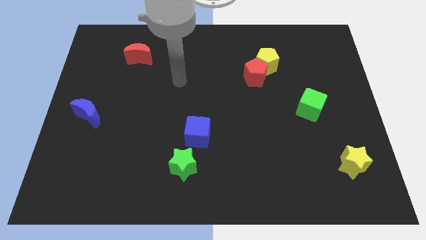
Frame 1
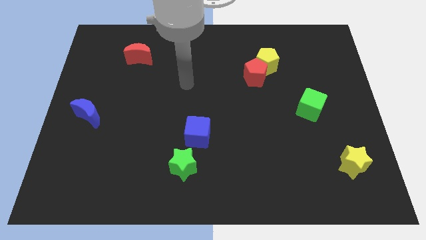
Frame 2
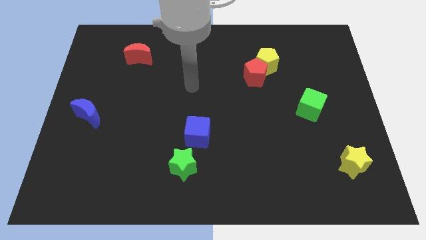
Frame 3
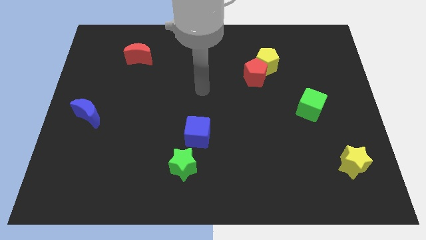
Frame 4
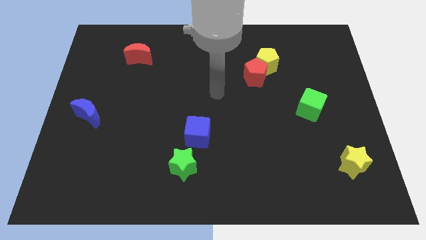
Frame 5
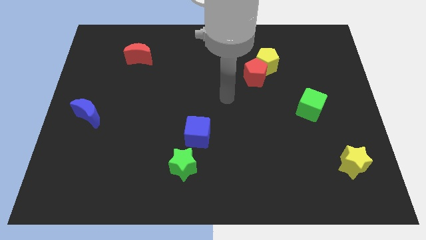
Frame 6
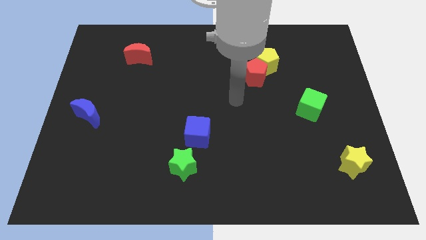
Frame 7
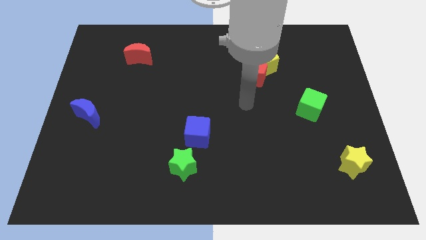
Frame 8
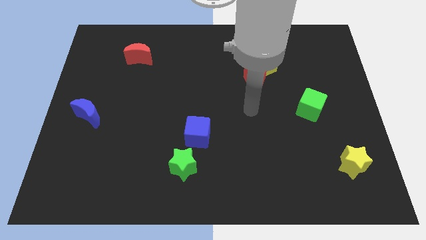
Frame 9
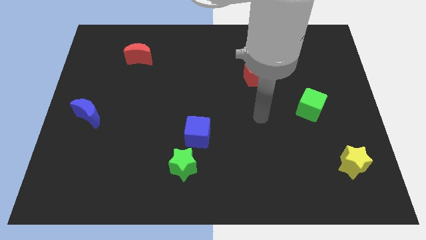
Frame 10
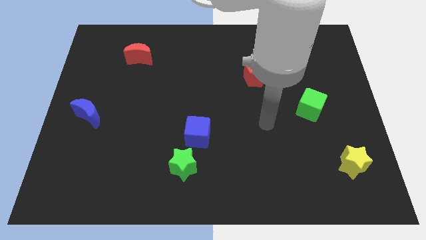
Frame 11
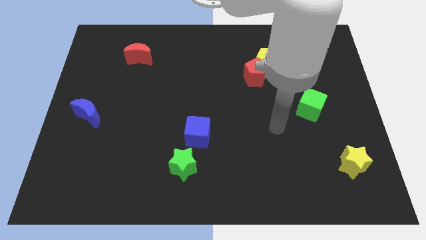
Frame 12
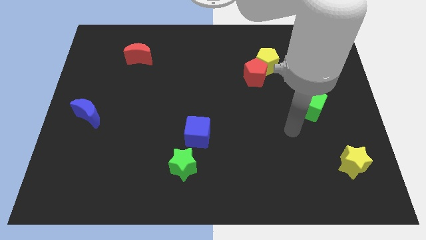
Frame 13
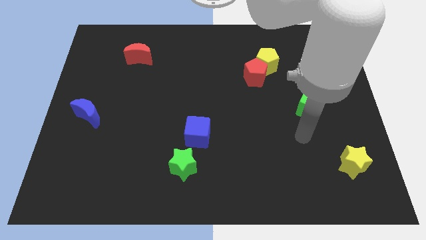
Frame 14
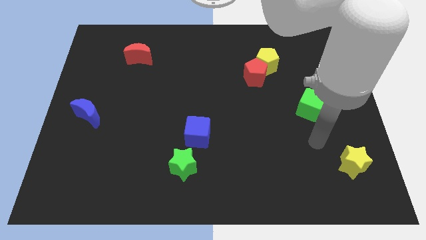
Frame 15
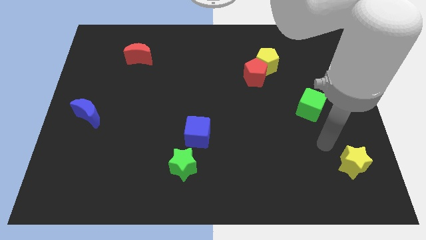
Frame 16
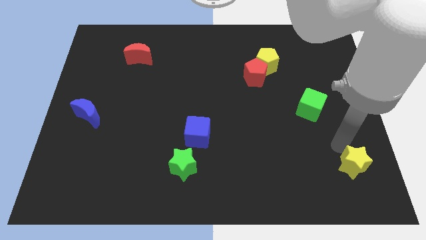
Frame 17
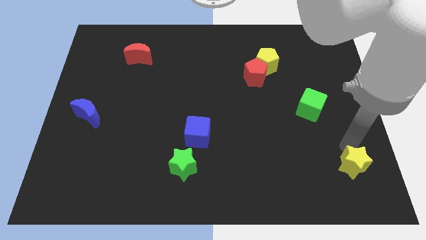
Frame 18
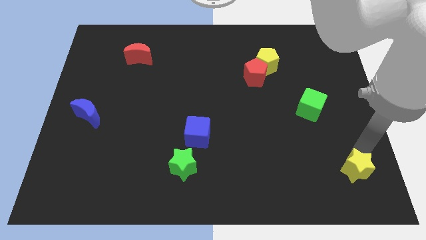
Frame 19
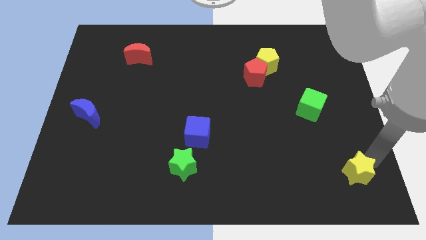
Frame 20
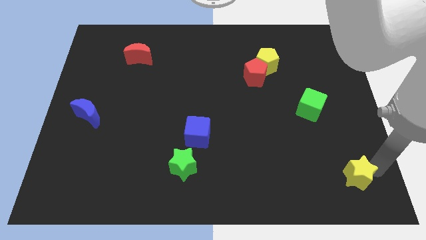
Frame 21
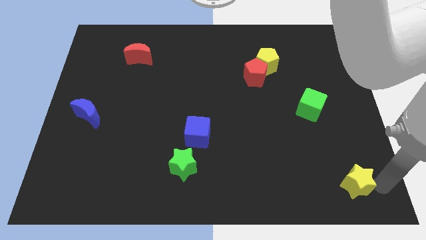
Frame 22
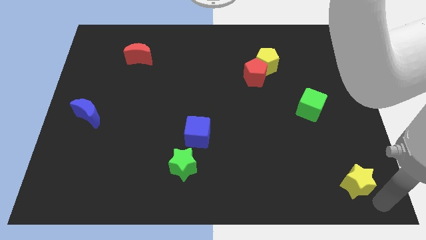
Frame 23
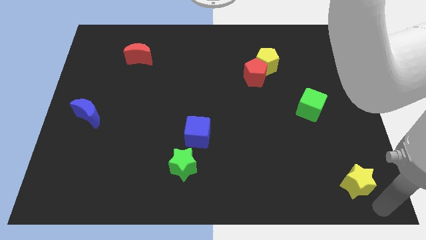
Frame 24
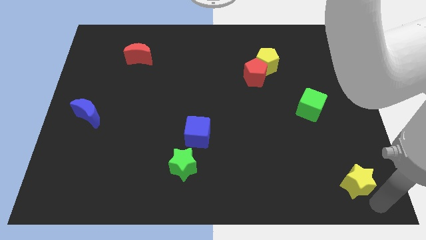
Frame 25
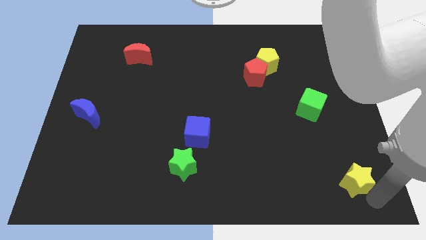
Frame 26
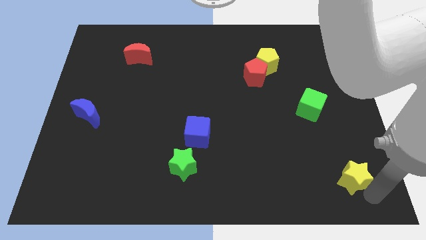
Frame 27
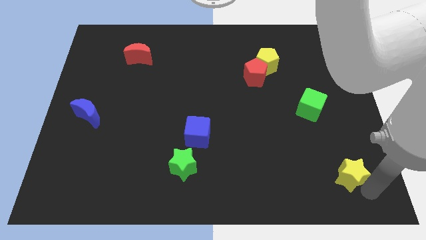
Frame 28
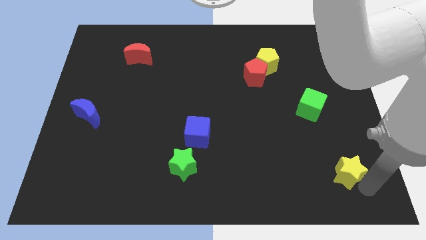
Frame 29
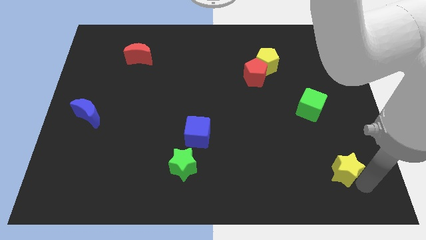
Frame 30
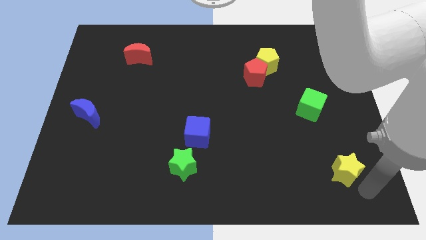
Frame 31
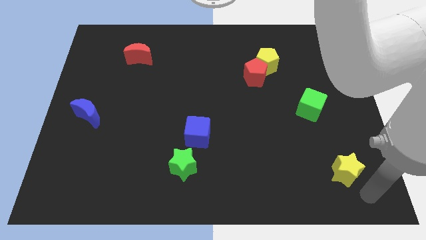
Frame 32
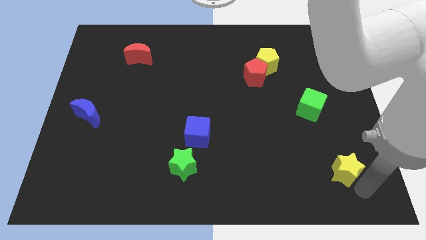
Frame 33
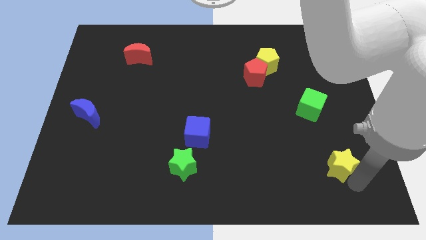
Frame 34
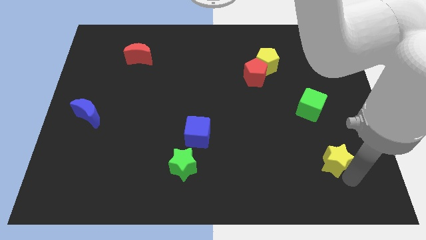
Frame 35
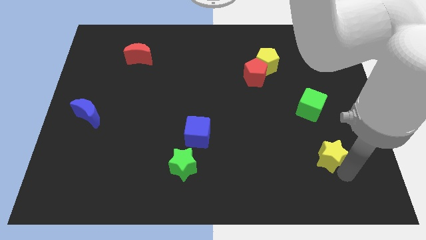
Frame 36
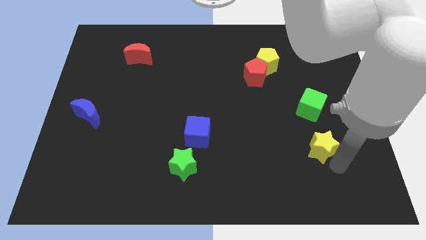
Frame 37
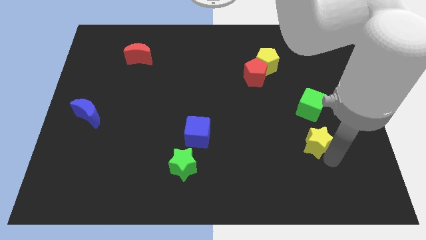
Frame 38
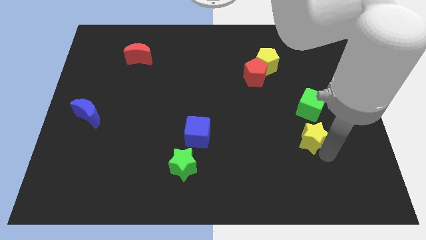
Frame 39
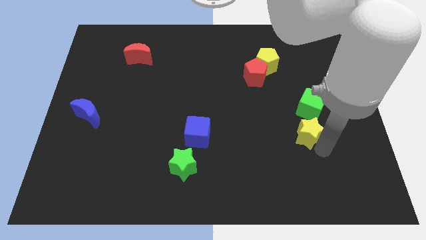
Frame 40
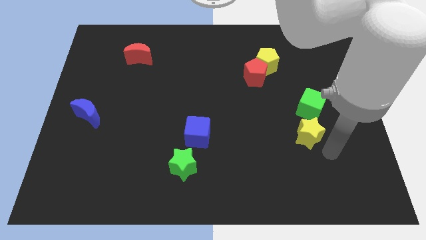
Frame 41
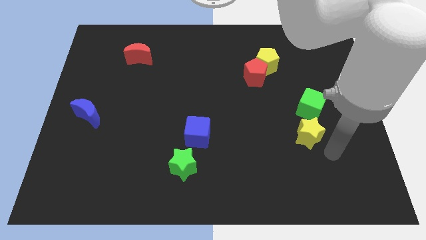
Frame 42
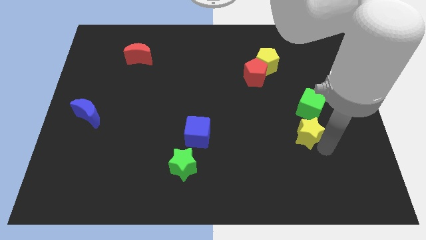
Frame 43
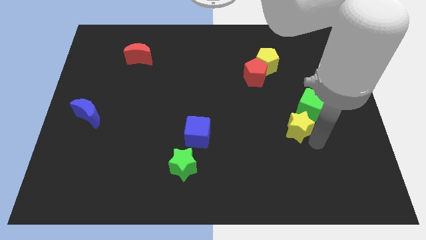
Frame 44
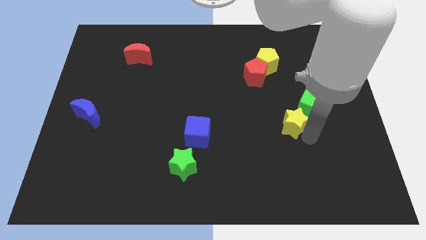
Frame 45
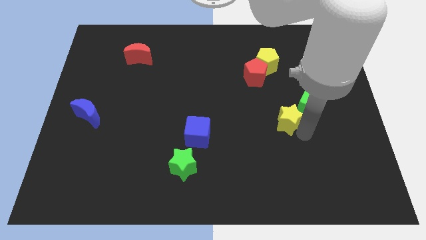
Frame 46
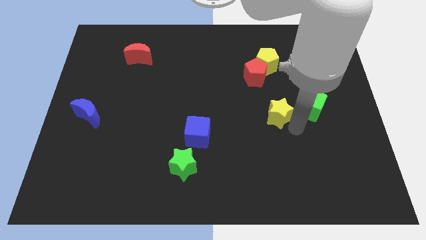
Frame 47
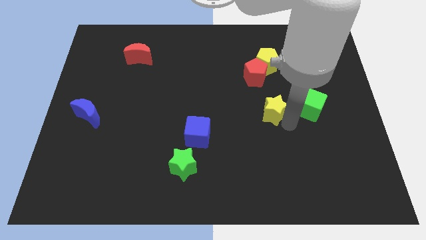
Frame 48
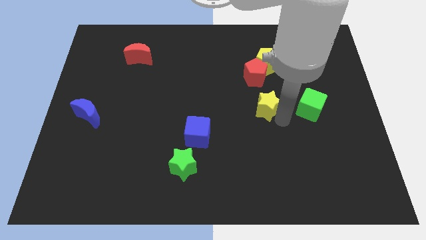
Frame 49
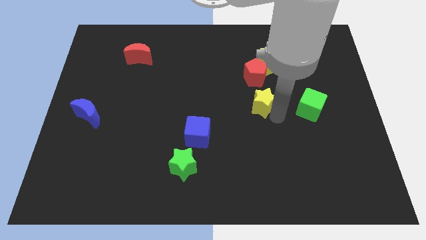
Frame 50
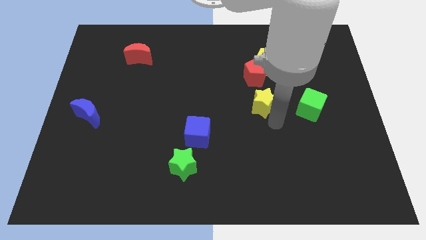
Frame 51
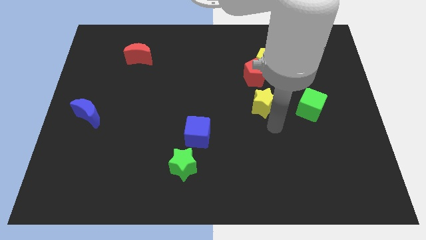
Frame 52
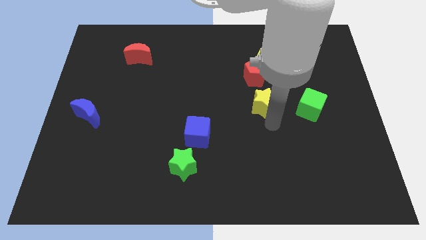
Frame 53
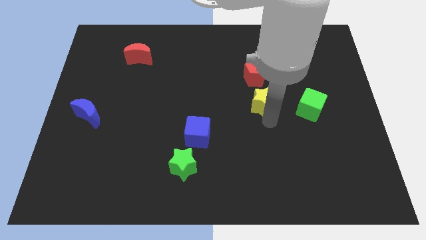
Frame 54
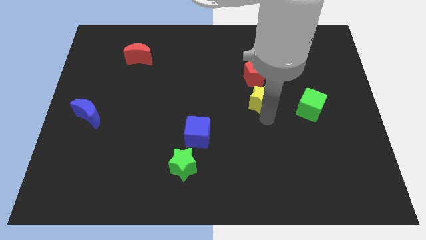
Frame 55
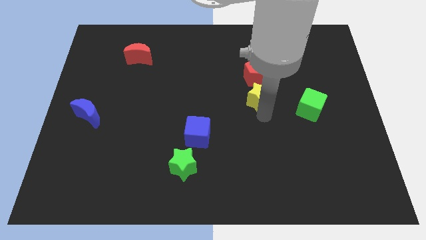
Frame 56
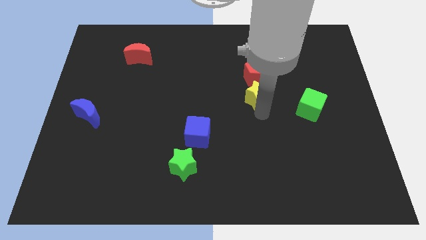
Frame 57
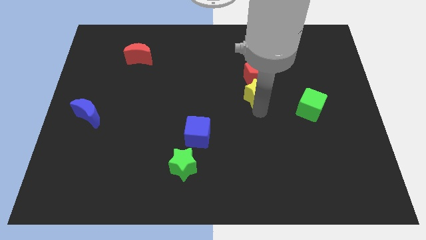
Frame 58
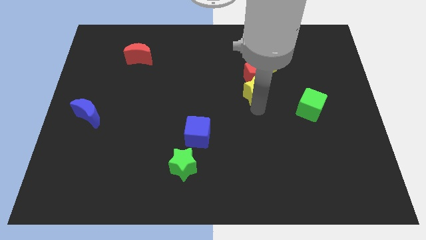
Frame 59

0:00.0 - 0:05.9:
put the yellow star to the bottom left of the yellow pentagon

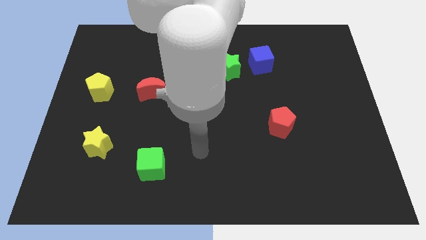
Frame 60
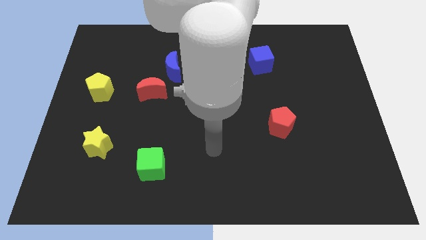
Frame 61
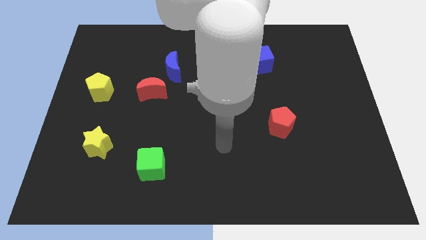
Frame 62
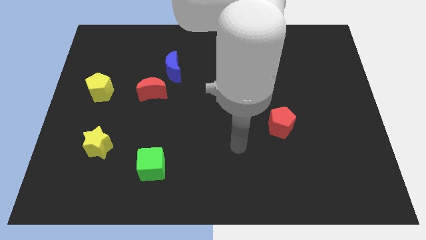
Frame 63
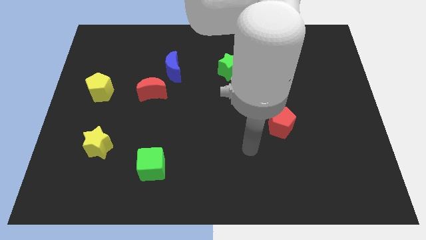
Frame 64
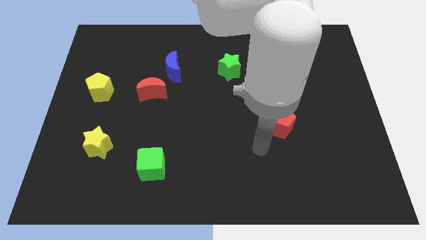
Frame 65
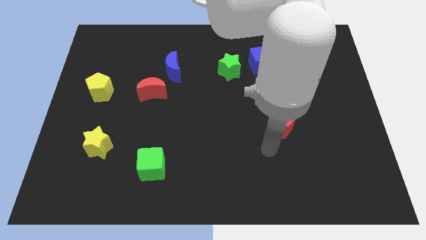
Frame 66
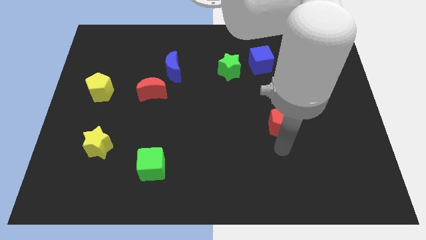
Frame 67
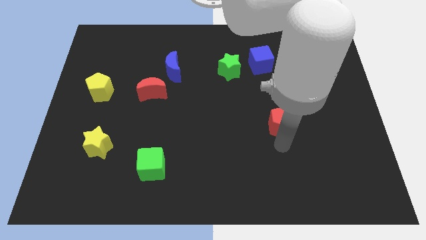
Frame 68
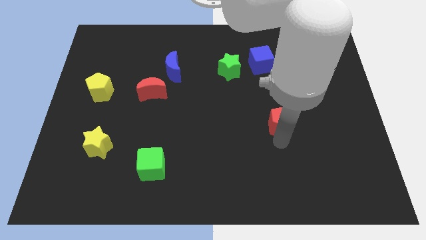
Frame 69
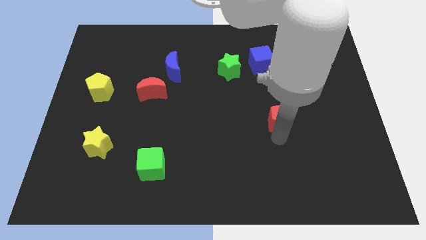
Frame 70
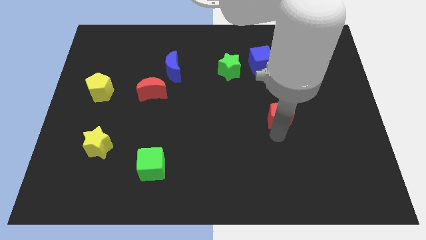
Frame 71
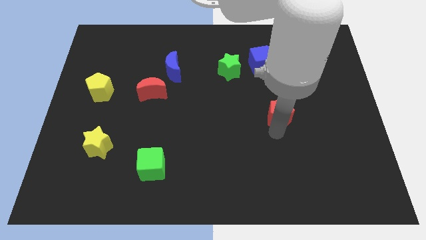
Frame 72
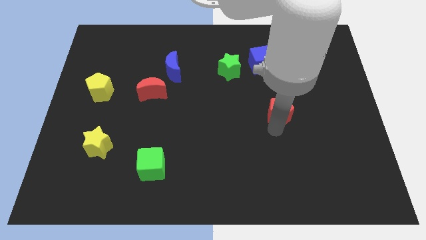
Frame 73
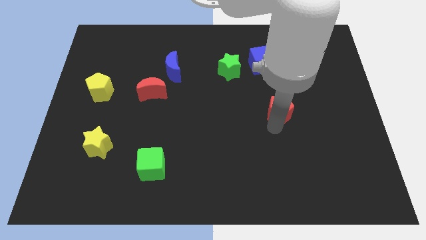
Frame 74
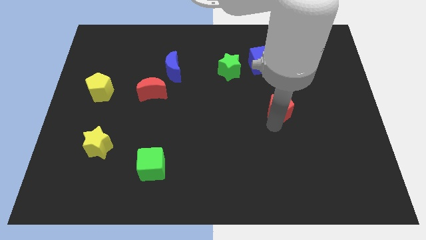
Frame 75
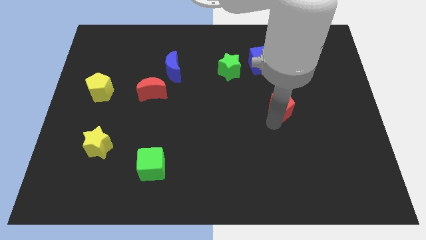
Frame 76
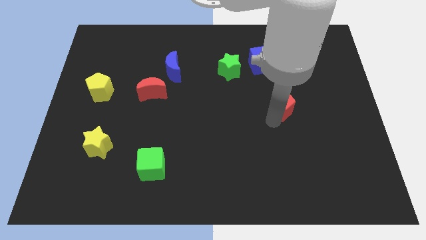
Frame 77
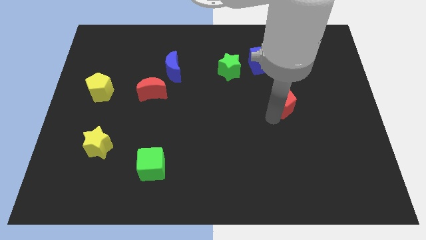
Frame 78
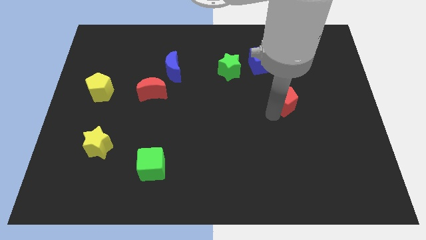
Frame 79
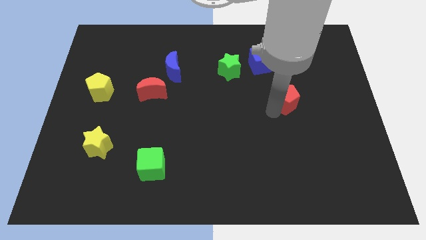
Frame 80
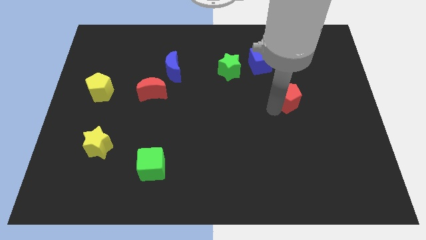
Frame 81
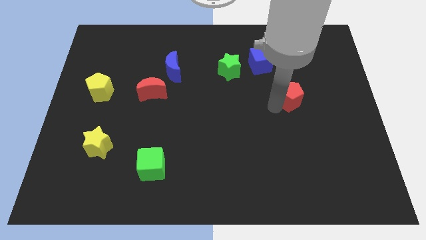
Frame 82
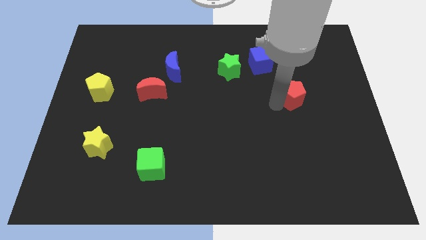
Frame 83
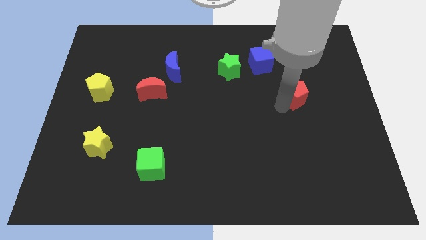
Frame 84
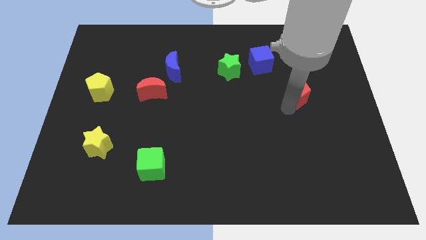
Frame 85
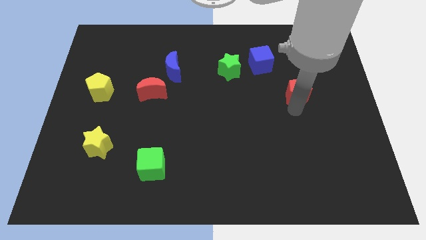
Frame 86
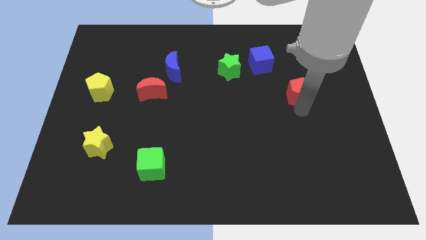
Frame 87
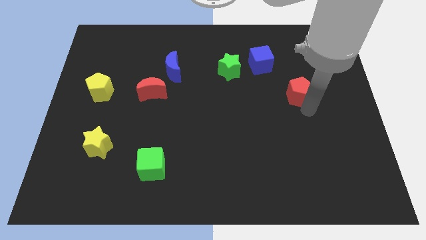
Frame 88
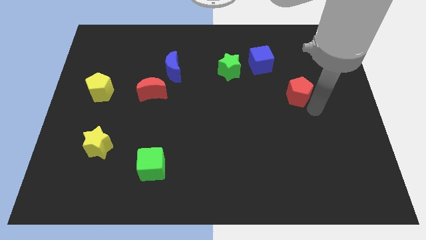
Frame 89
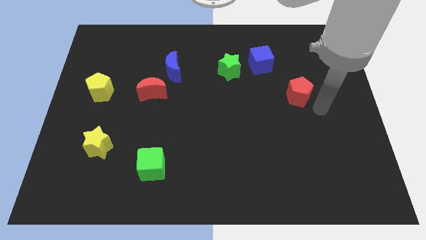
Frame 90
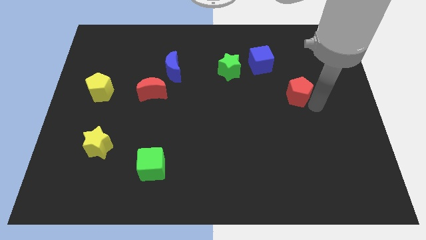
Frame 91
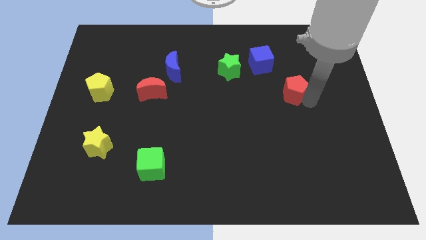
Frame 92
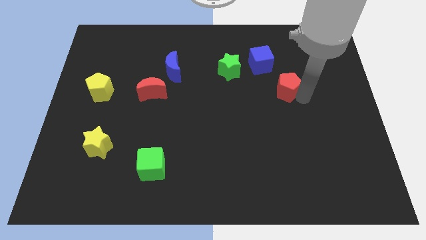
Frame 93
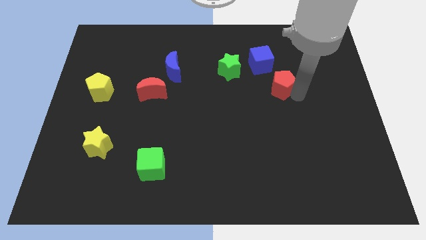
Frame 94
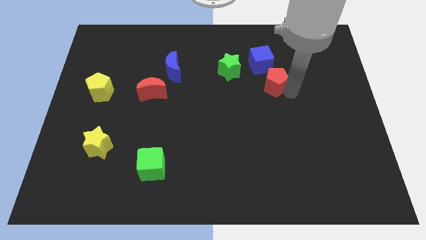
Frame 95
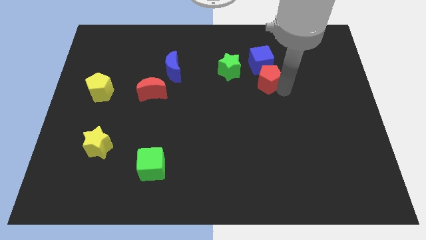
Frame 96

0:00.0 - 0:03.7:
push the red pentagon to the right side of the green star
